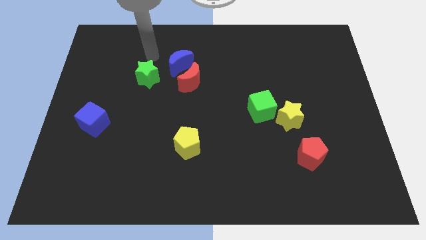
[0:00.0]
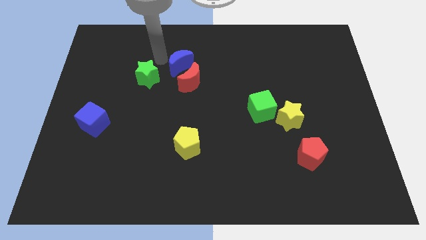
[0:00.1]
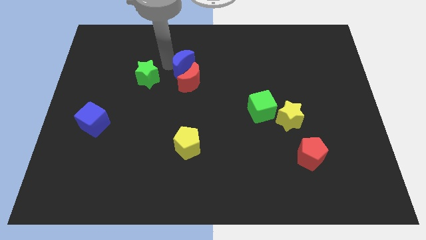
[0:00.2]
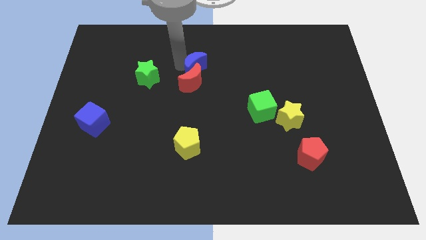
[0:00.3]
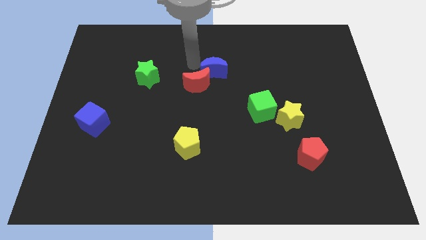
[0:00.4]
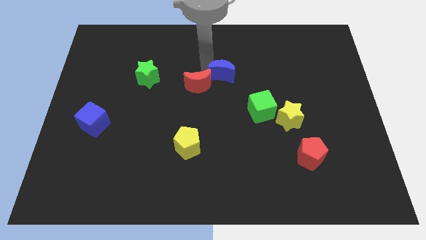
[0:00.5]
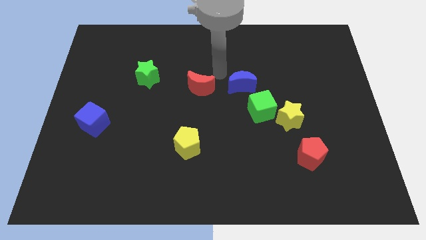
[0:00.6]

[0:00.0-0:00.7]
pull the red moon apart from the blue moon

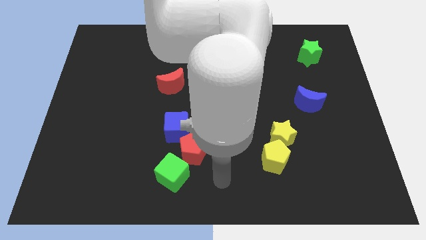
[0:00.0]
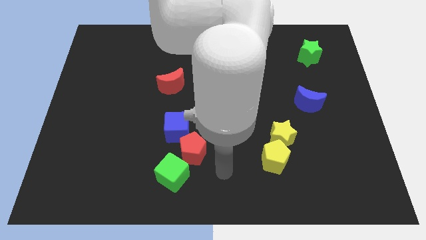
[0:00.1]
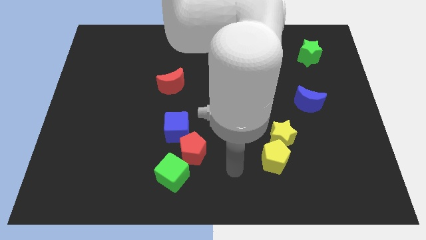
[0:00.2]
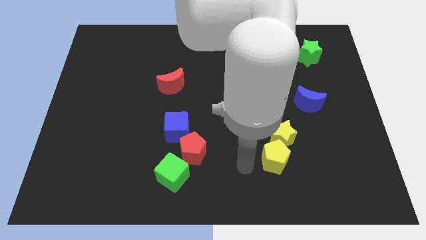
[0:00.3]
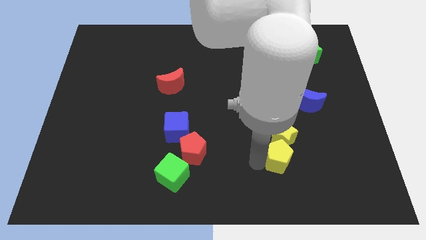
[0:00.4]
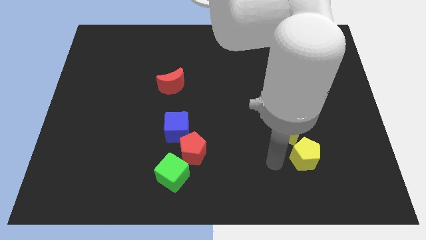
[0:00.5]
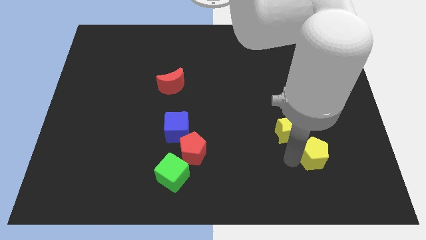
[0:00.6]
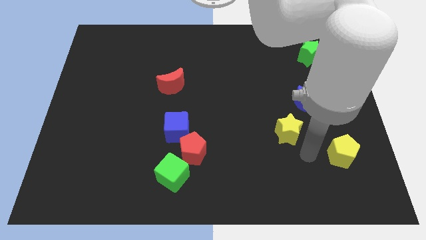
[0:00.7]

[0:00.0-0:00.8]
pull the yellow star apart from the yellow pentagon

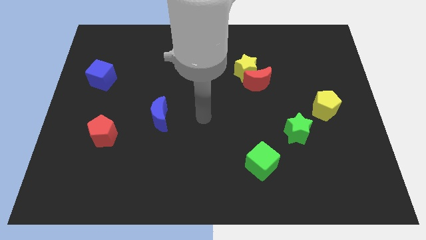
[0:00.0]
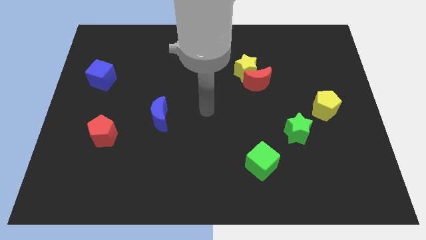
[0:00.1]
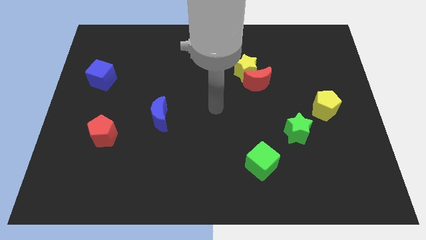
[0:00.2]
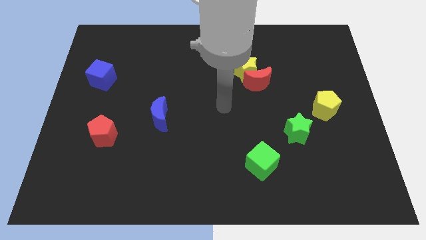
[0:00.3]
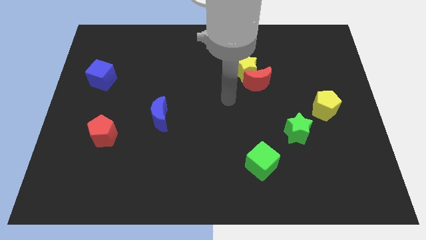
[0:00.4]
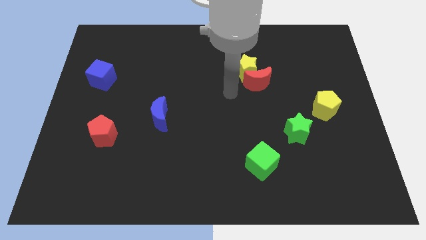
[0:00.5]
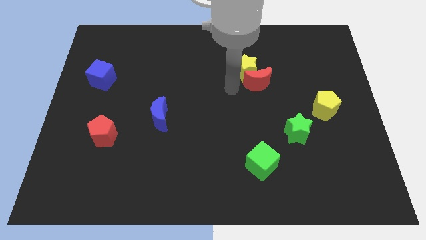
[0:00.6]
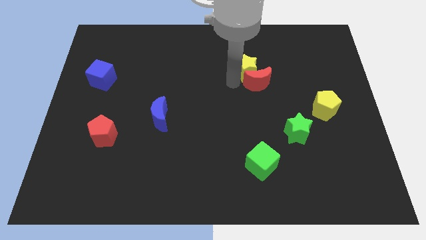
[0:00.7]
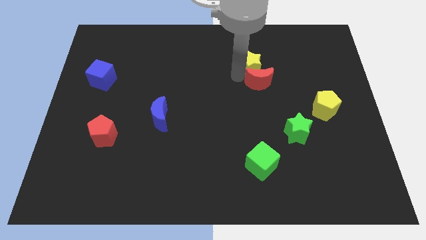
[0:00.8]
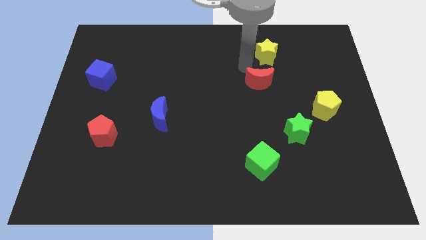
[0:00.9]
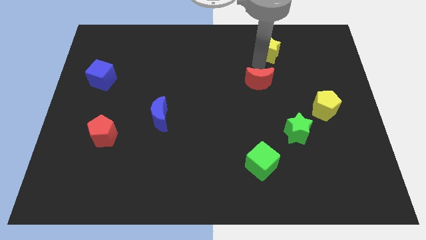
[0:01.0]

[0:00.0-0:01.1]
move the red moon away from the yellow star

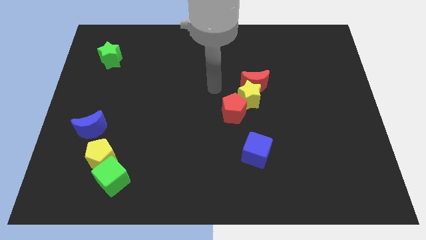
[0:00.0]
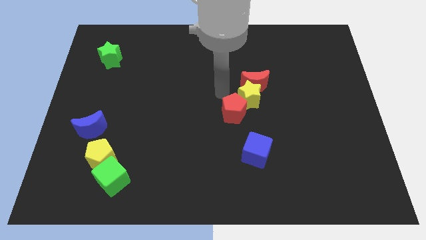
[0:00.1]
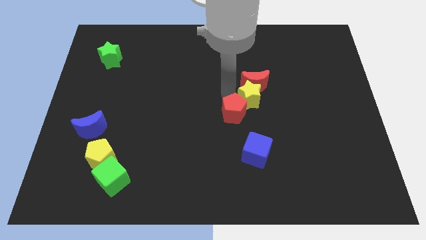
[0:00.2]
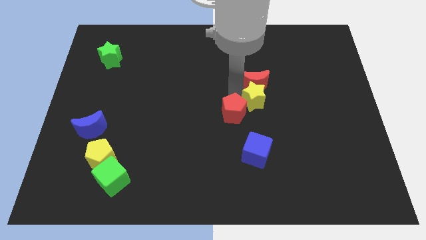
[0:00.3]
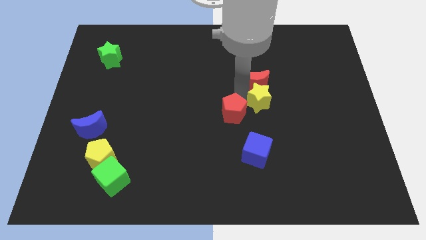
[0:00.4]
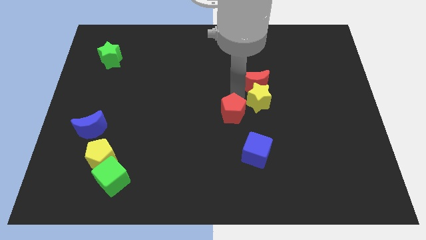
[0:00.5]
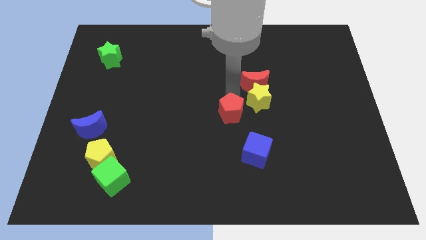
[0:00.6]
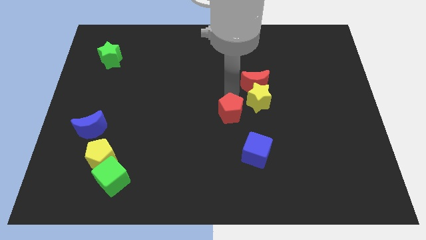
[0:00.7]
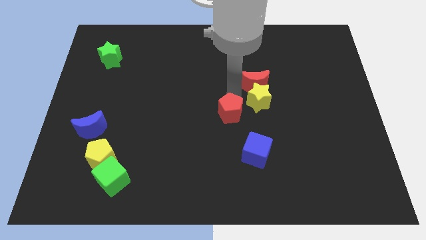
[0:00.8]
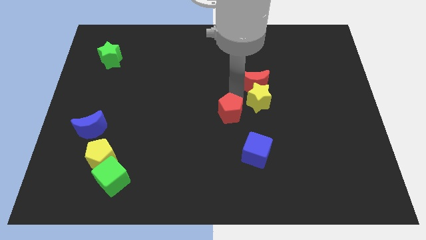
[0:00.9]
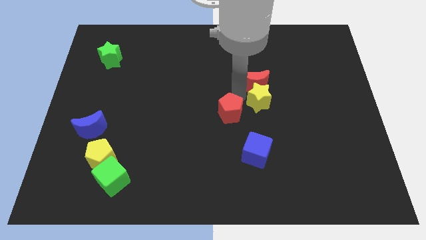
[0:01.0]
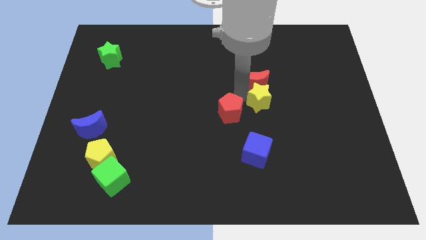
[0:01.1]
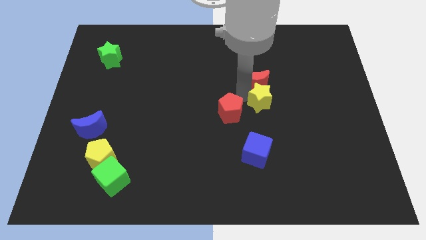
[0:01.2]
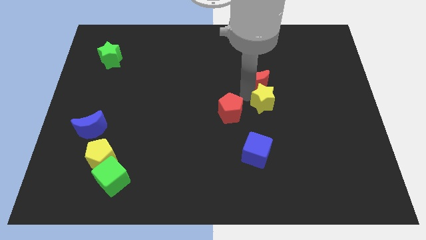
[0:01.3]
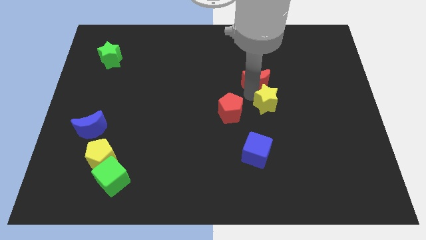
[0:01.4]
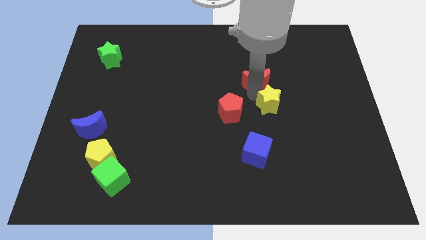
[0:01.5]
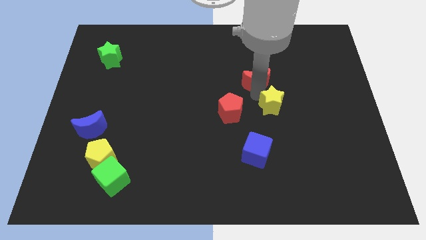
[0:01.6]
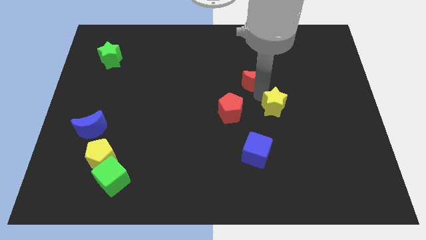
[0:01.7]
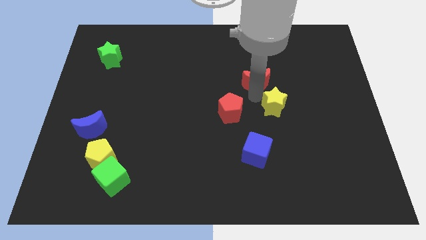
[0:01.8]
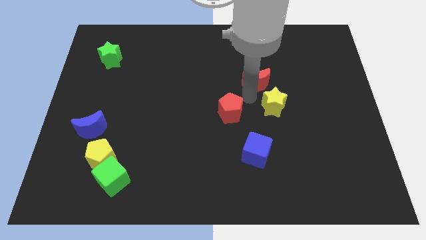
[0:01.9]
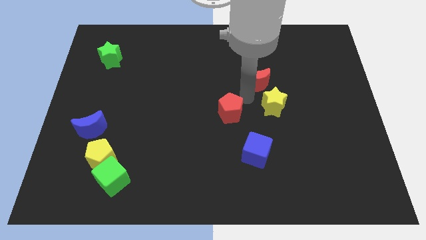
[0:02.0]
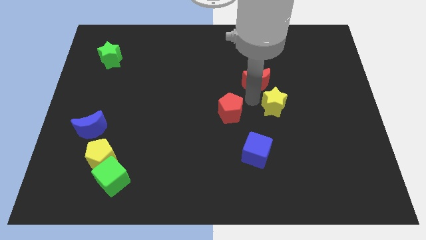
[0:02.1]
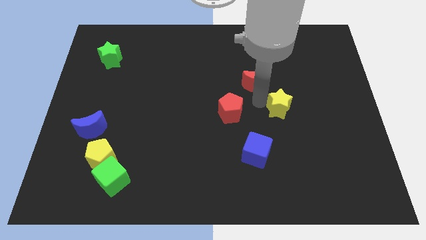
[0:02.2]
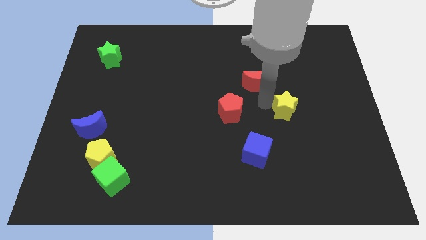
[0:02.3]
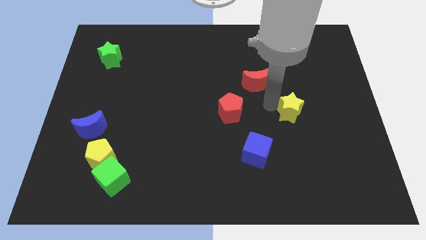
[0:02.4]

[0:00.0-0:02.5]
separate the yellow star from the red moon and red pentagon

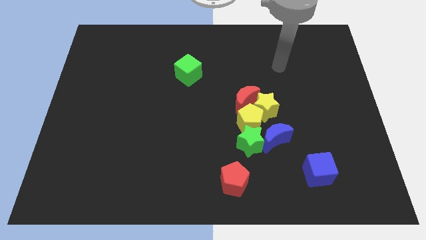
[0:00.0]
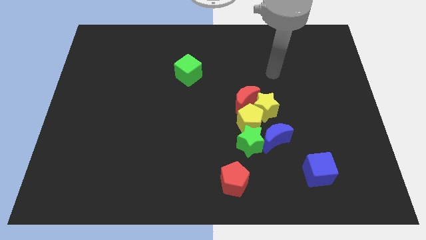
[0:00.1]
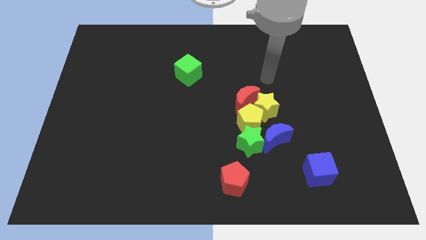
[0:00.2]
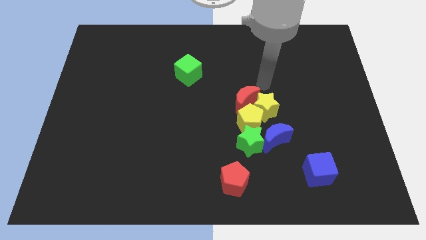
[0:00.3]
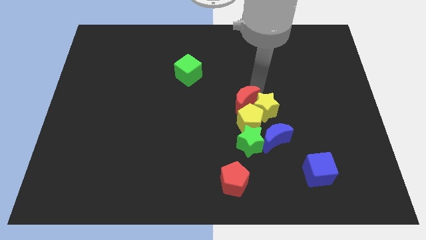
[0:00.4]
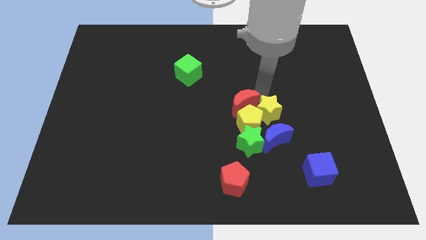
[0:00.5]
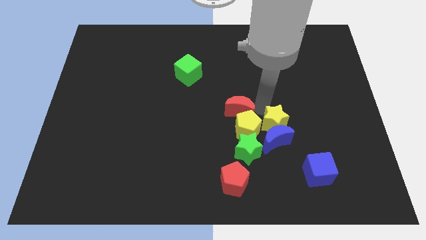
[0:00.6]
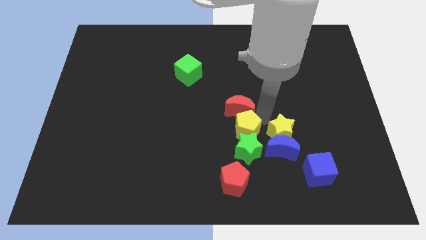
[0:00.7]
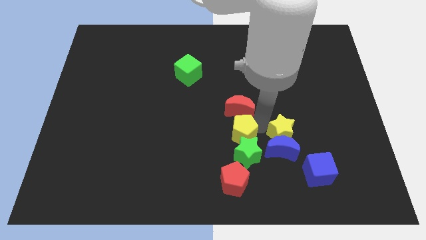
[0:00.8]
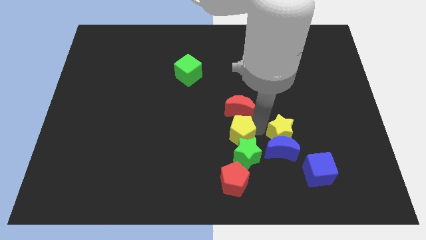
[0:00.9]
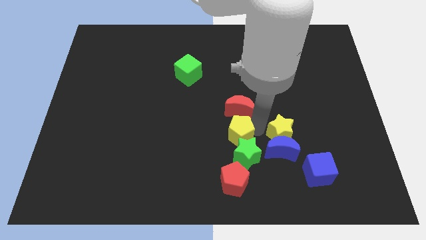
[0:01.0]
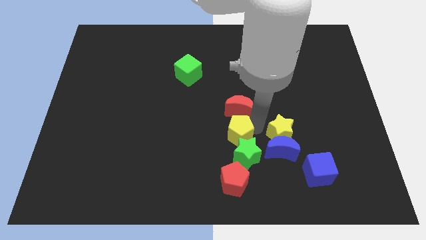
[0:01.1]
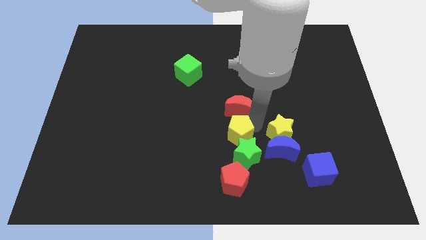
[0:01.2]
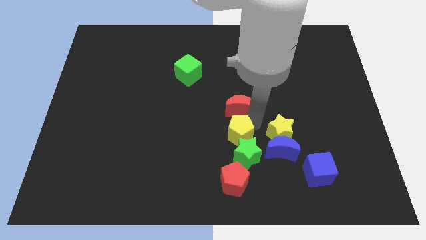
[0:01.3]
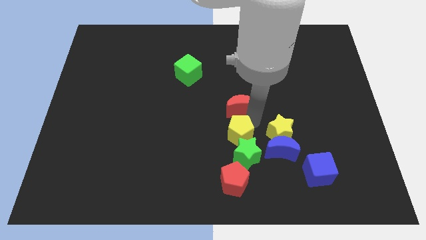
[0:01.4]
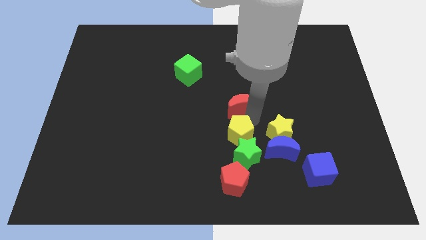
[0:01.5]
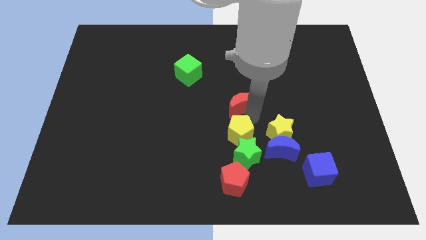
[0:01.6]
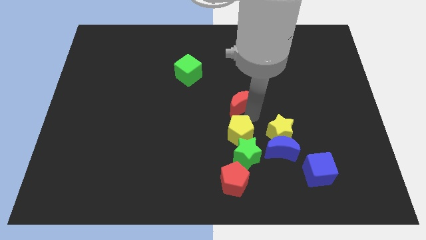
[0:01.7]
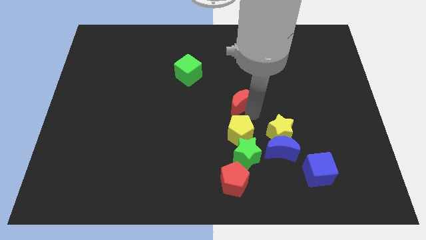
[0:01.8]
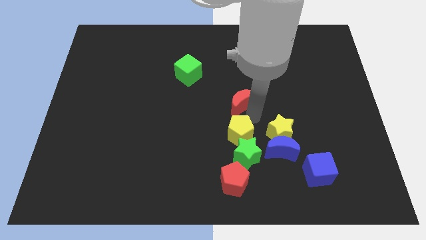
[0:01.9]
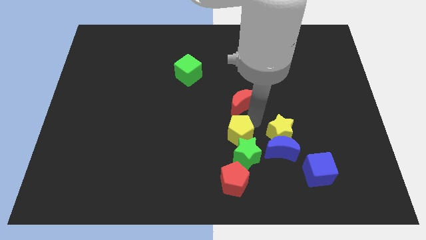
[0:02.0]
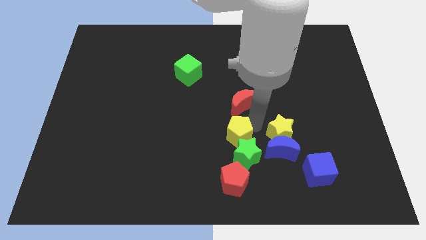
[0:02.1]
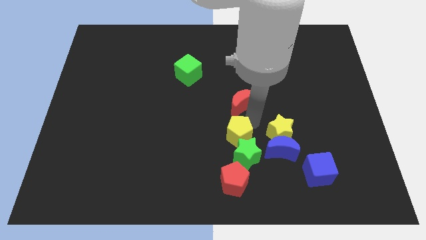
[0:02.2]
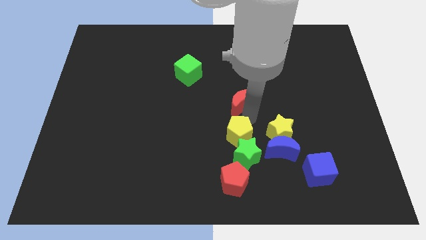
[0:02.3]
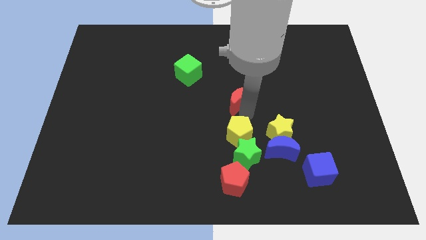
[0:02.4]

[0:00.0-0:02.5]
pull the red moon apart from the yellow star and yellow pentagon

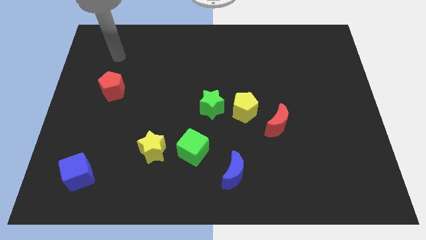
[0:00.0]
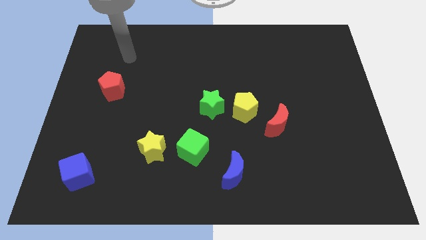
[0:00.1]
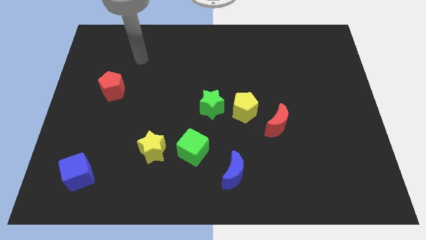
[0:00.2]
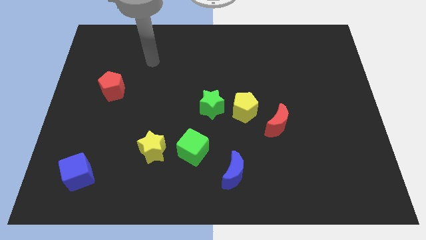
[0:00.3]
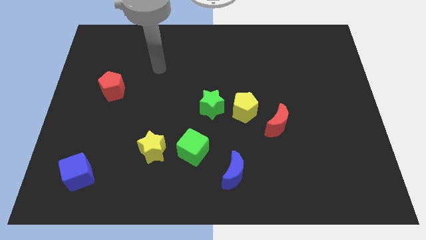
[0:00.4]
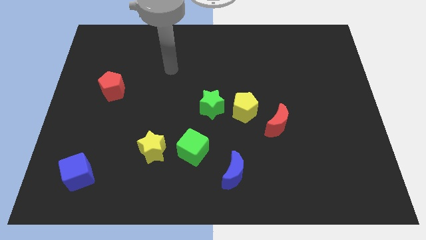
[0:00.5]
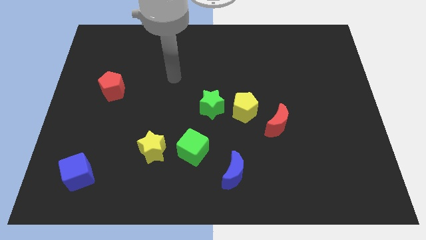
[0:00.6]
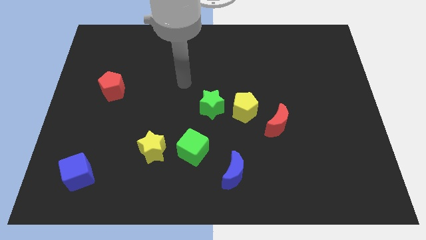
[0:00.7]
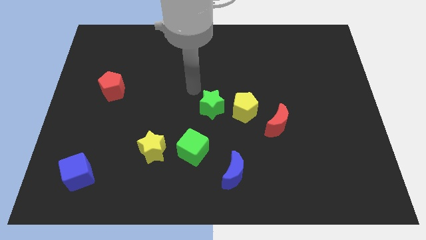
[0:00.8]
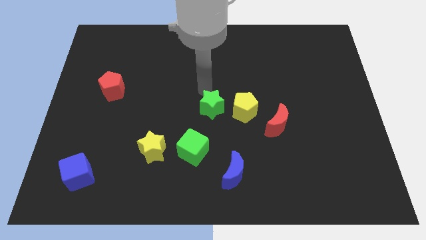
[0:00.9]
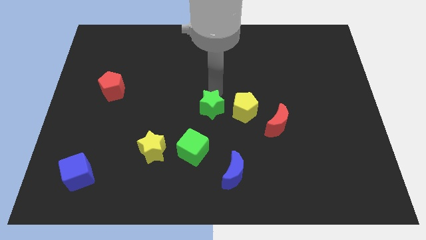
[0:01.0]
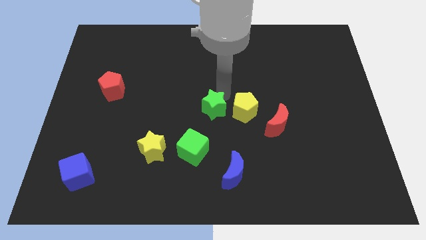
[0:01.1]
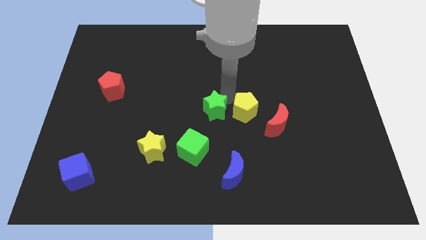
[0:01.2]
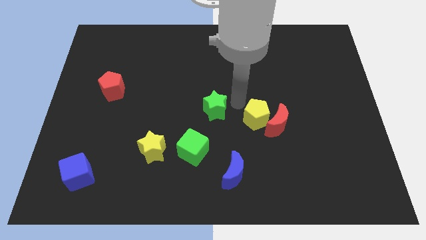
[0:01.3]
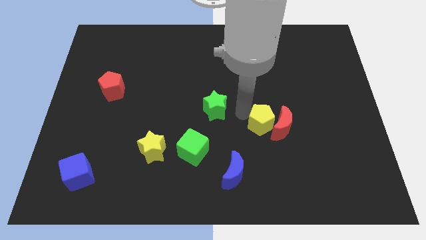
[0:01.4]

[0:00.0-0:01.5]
separate the green star from the yellow pentagon

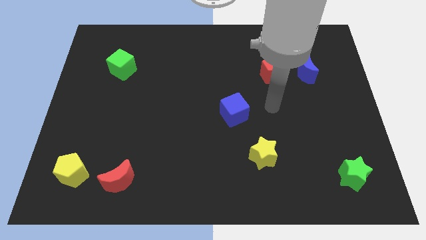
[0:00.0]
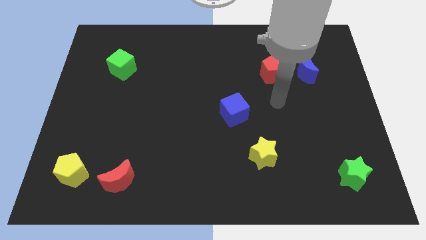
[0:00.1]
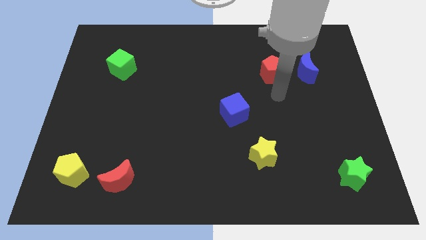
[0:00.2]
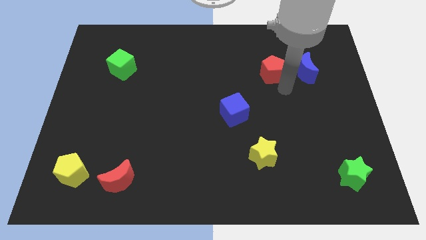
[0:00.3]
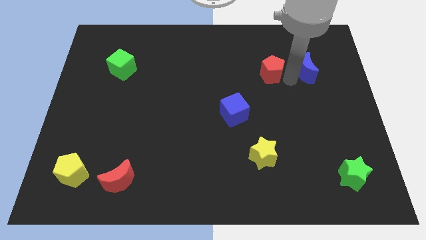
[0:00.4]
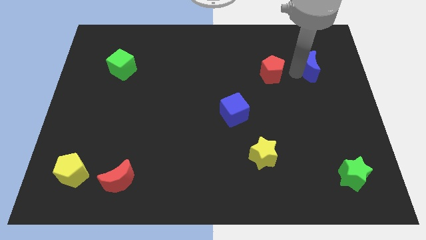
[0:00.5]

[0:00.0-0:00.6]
separate the red pentagon from the blue moon
